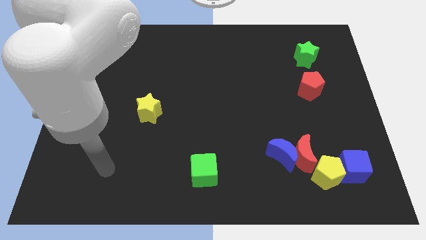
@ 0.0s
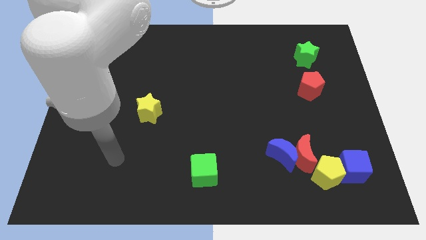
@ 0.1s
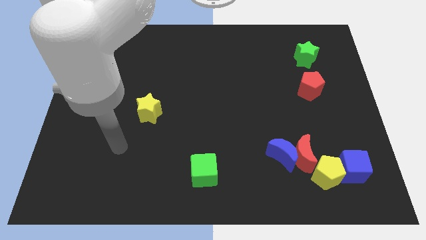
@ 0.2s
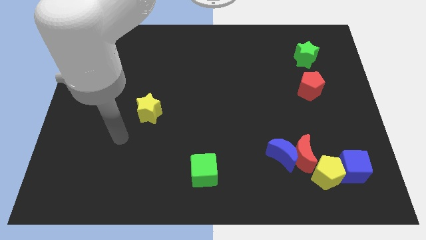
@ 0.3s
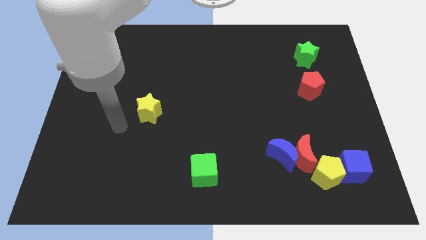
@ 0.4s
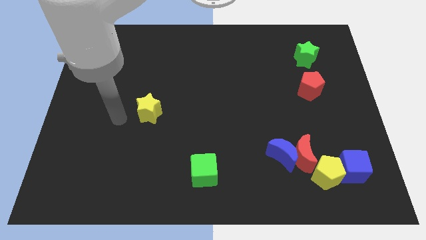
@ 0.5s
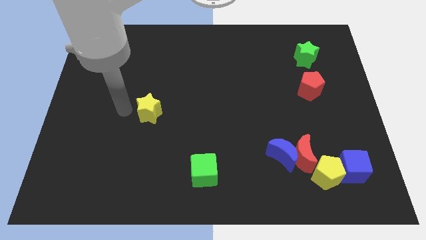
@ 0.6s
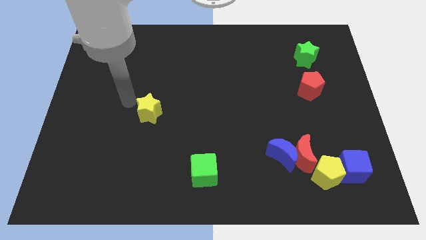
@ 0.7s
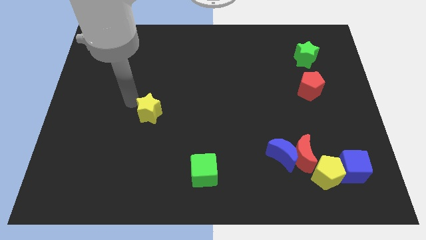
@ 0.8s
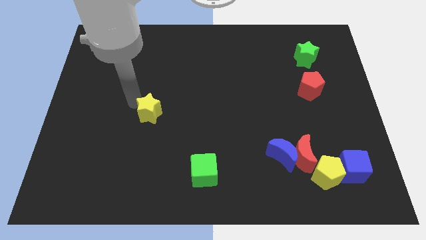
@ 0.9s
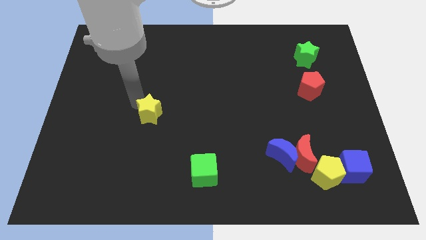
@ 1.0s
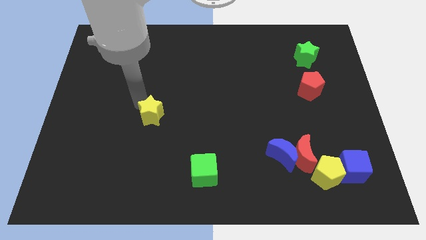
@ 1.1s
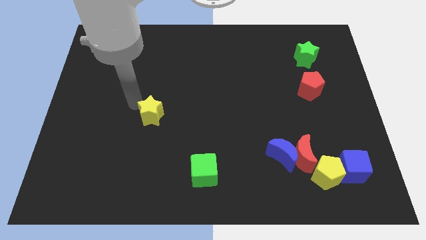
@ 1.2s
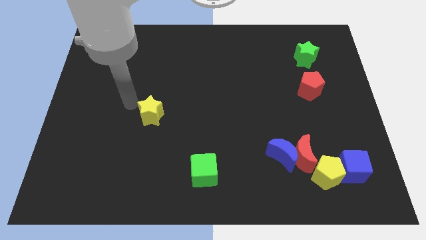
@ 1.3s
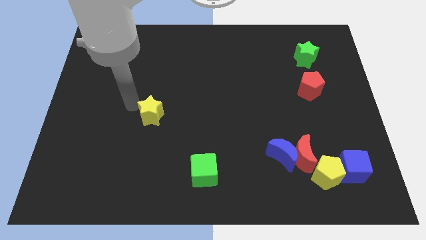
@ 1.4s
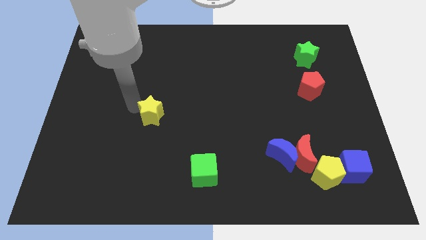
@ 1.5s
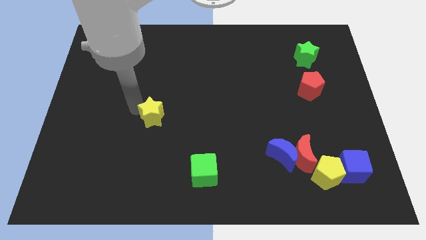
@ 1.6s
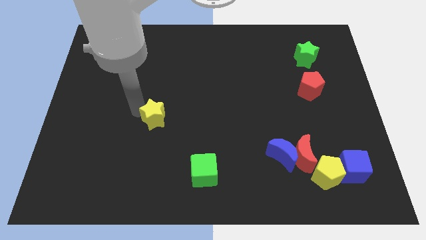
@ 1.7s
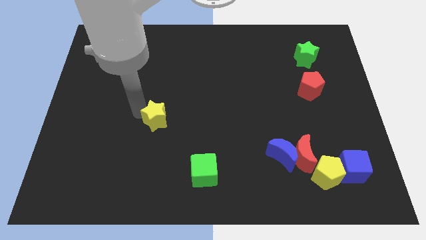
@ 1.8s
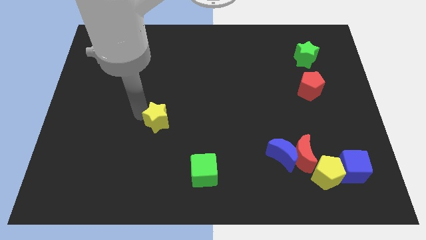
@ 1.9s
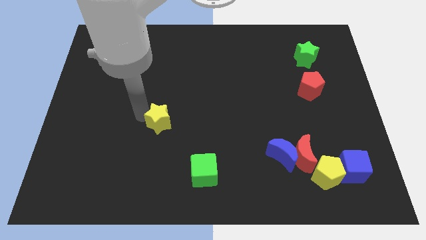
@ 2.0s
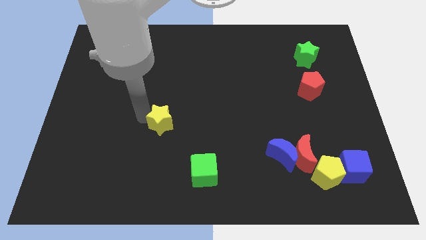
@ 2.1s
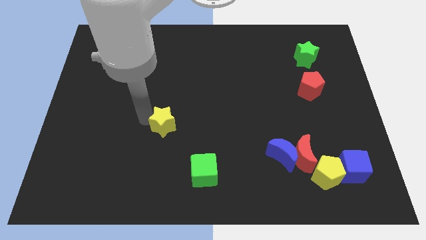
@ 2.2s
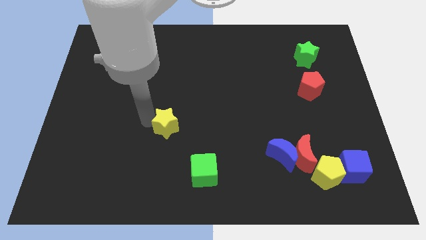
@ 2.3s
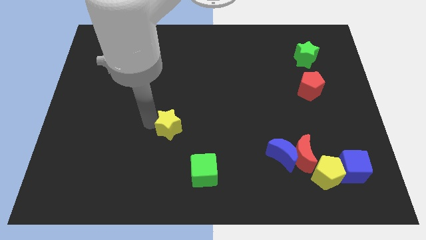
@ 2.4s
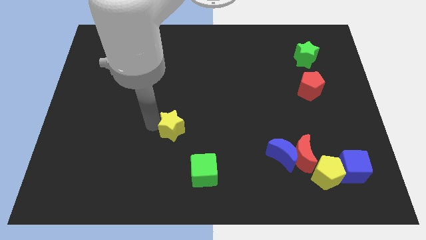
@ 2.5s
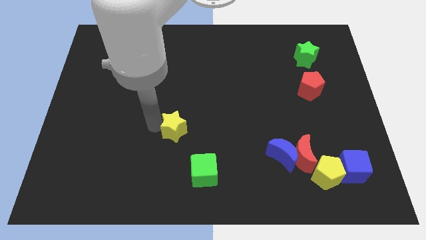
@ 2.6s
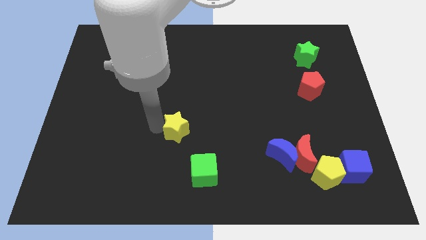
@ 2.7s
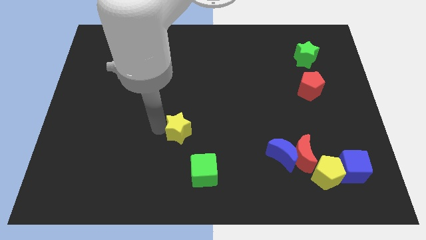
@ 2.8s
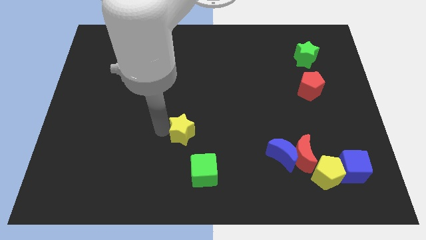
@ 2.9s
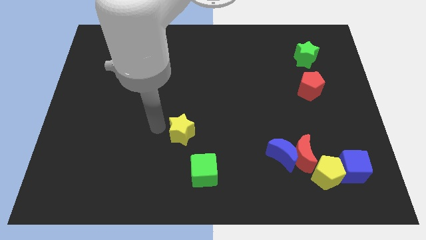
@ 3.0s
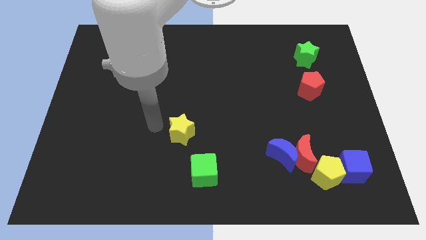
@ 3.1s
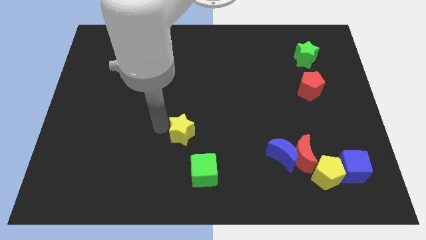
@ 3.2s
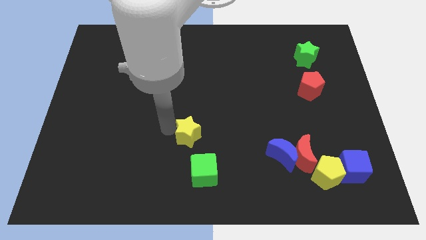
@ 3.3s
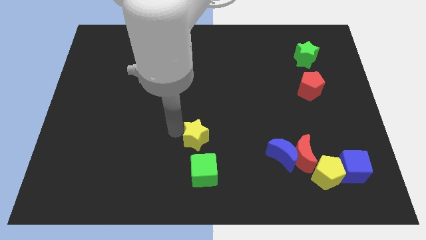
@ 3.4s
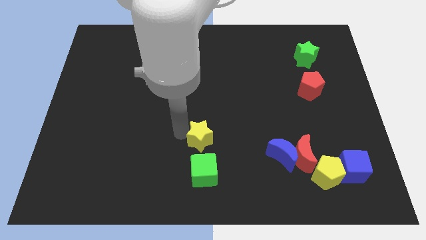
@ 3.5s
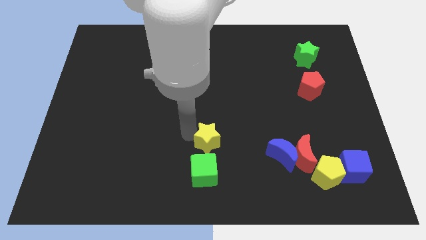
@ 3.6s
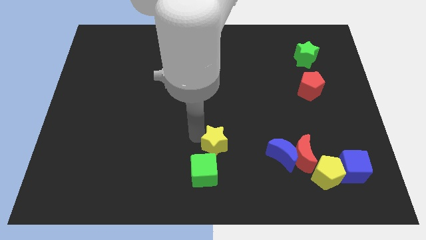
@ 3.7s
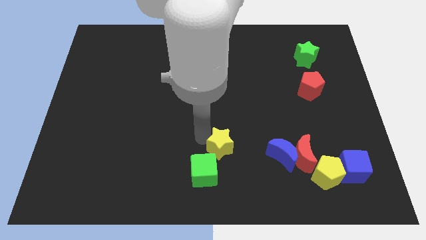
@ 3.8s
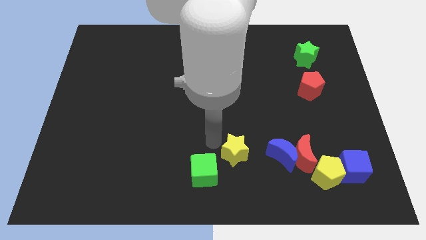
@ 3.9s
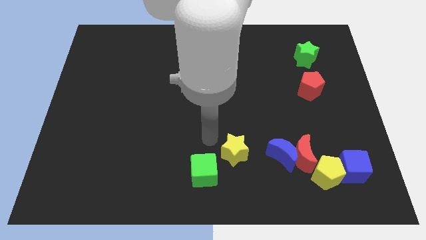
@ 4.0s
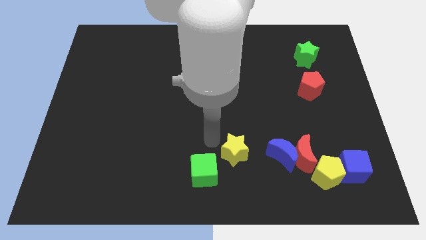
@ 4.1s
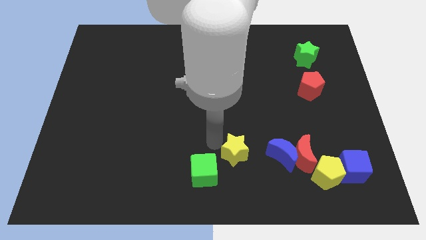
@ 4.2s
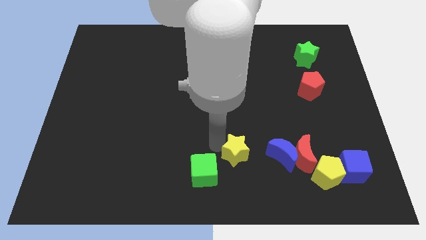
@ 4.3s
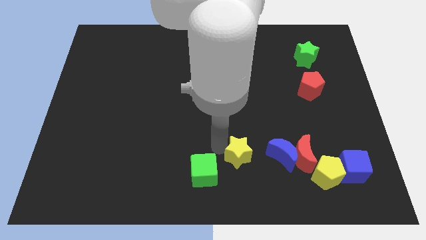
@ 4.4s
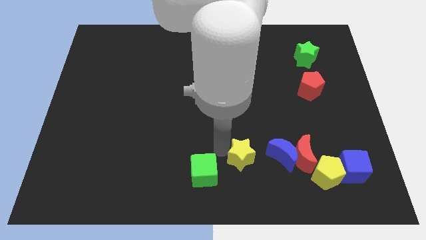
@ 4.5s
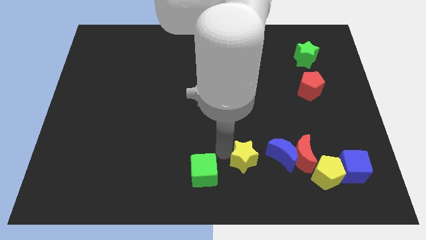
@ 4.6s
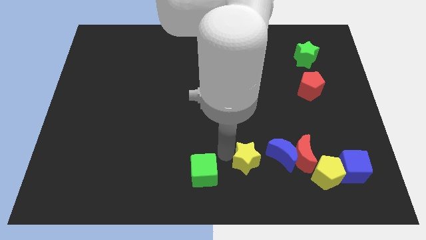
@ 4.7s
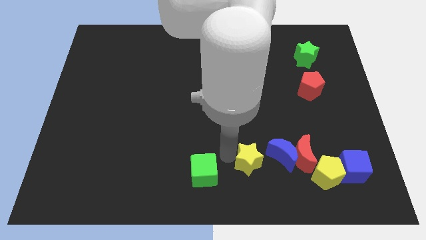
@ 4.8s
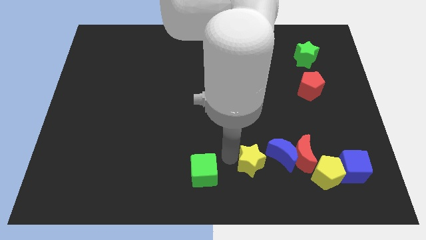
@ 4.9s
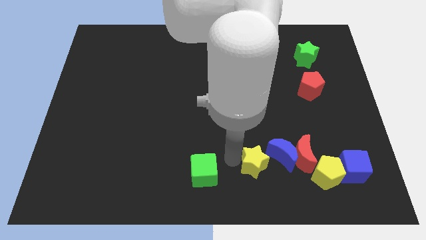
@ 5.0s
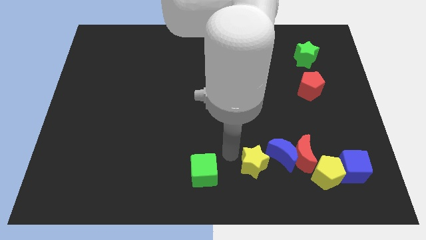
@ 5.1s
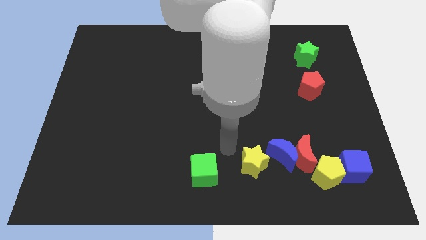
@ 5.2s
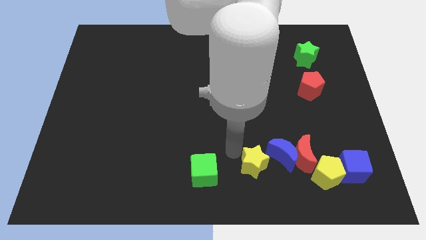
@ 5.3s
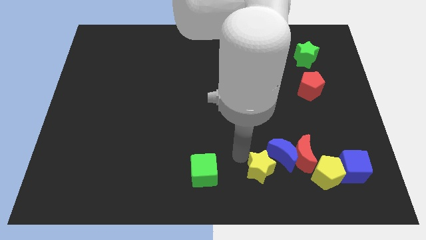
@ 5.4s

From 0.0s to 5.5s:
put the yellow star diagonally down and to the left of the red moon

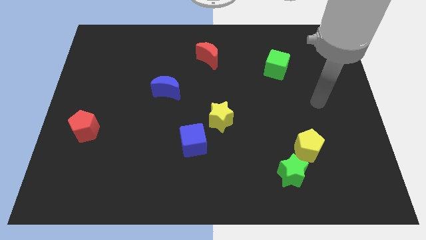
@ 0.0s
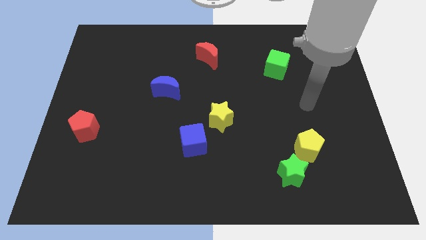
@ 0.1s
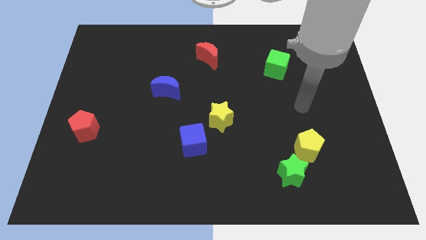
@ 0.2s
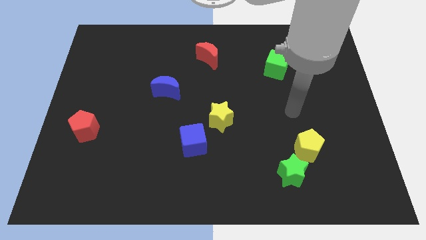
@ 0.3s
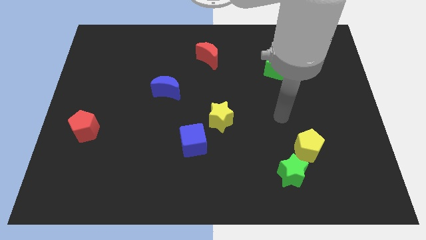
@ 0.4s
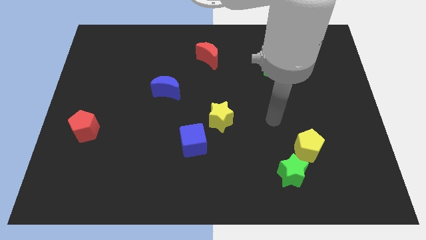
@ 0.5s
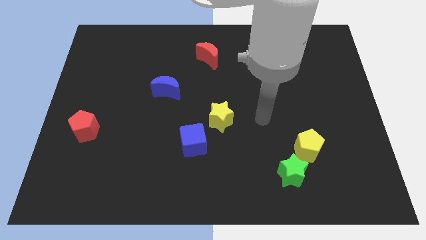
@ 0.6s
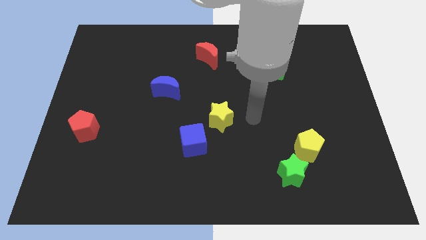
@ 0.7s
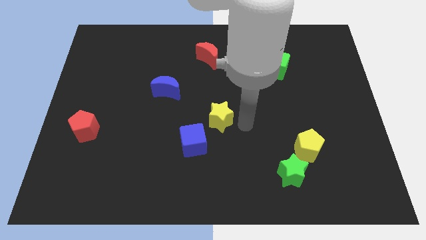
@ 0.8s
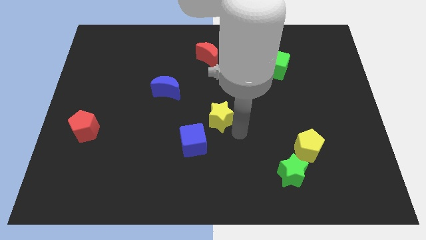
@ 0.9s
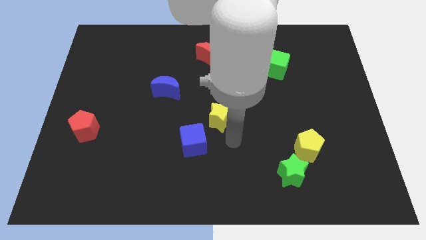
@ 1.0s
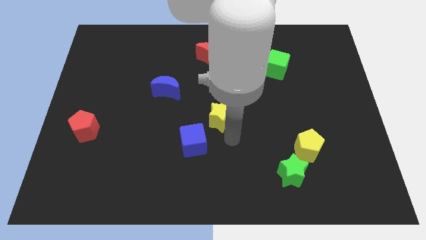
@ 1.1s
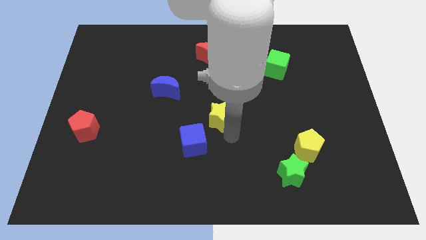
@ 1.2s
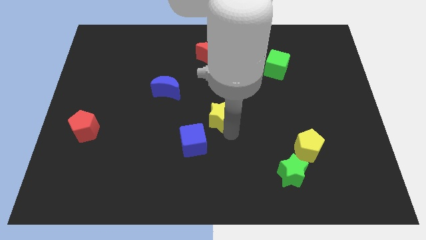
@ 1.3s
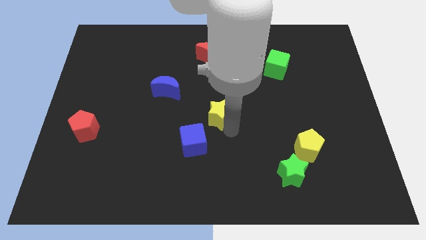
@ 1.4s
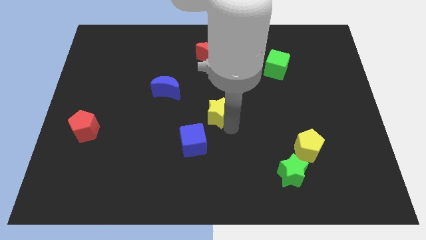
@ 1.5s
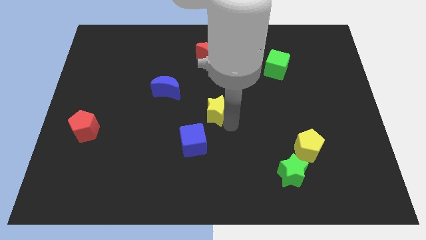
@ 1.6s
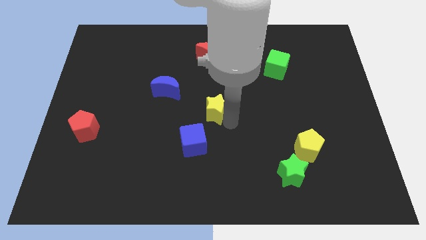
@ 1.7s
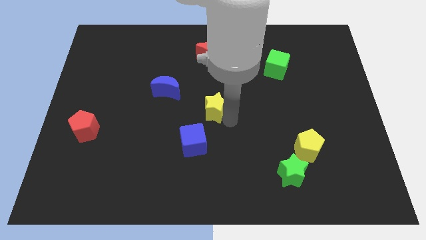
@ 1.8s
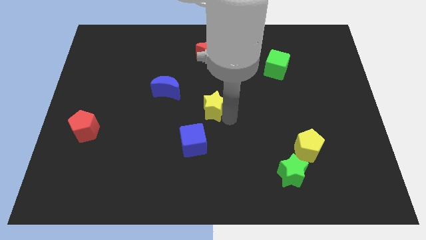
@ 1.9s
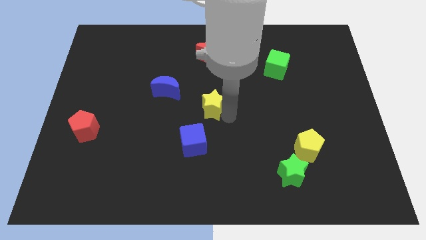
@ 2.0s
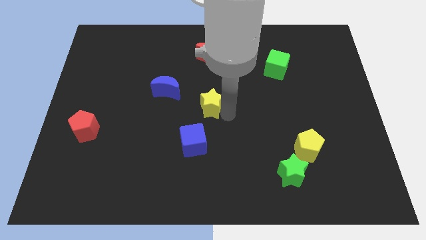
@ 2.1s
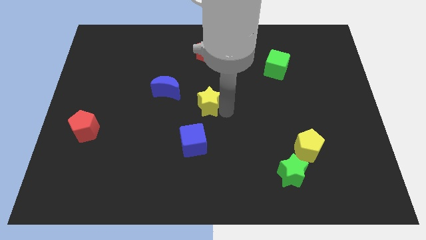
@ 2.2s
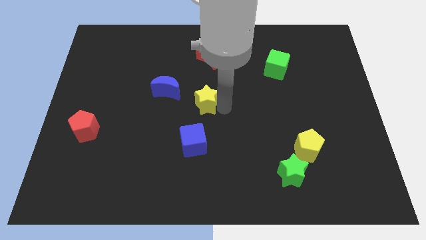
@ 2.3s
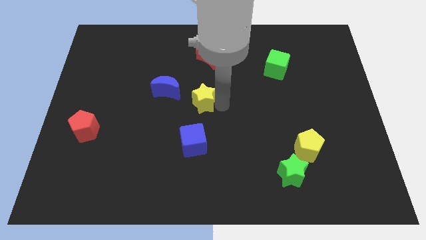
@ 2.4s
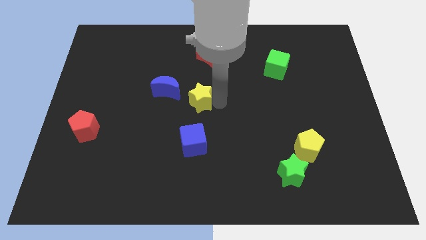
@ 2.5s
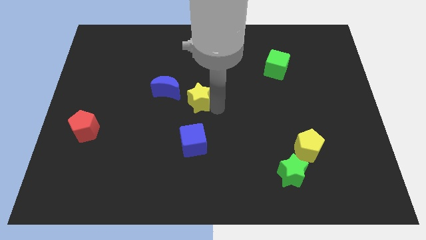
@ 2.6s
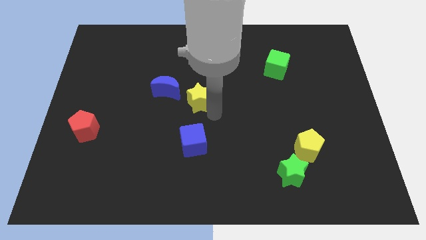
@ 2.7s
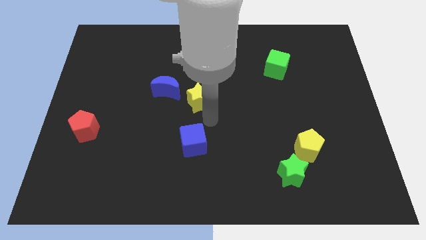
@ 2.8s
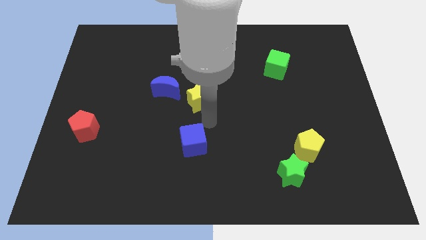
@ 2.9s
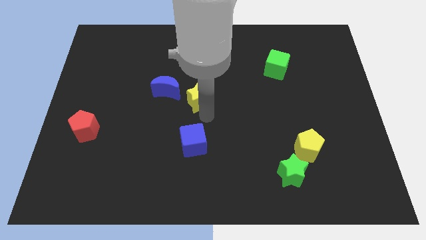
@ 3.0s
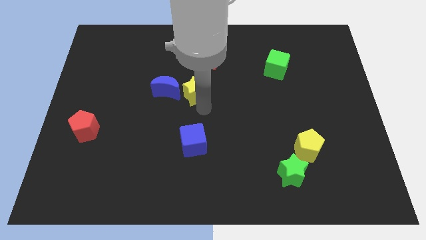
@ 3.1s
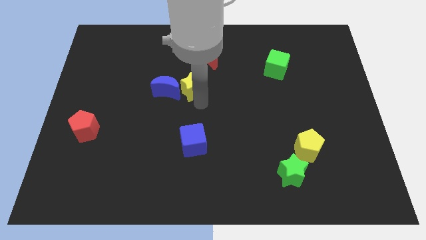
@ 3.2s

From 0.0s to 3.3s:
move the yellow star to the top right of the blue moon
